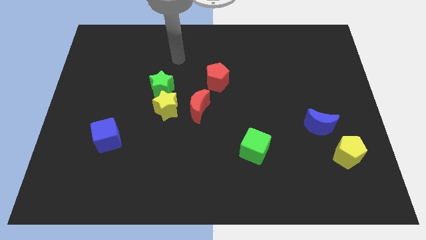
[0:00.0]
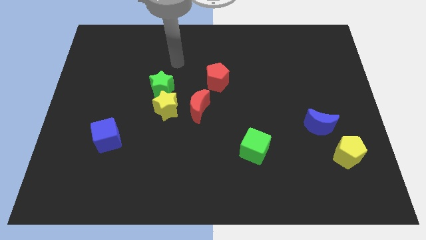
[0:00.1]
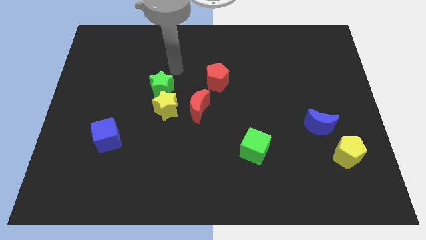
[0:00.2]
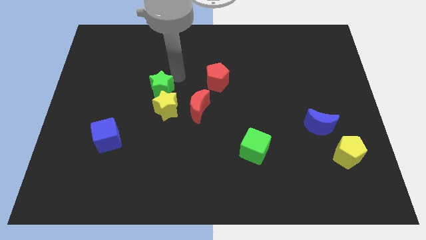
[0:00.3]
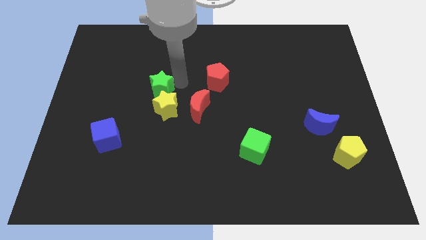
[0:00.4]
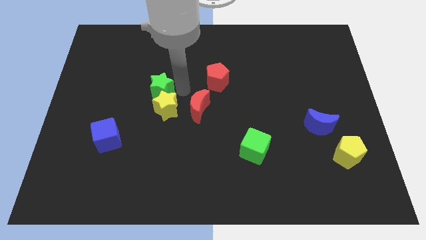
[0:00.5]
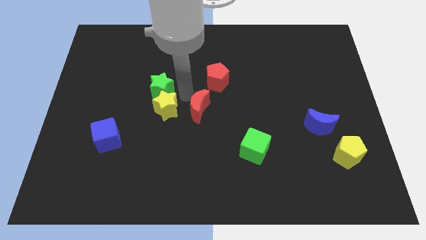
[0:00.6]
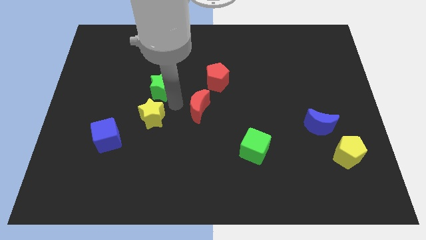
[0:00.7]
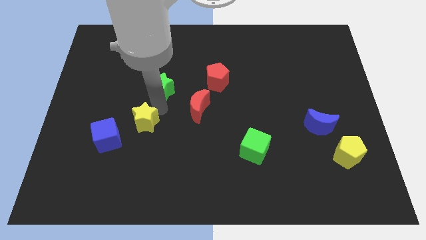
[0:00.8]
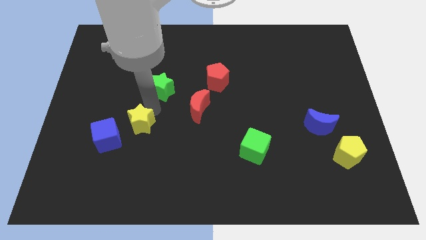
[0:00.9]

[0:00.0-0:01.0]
separate the green star from the yellow star

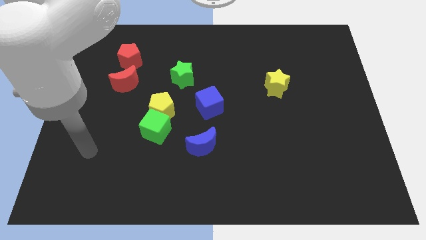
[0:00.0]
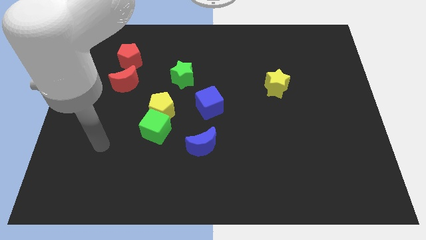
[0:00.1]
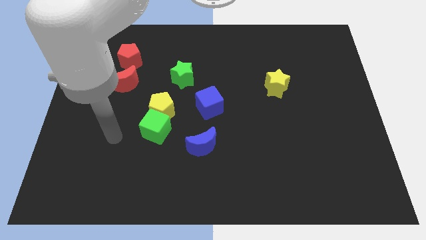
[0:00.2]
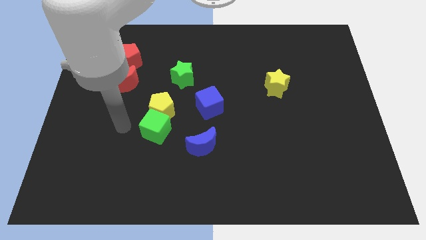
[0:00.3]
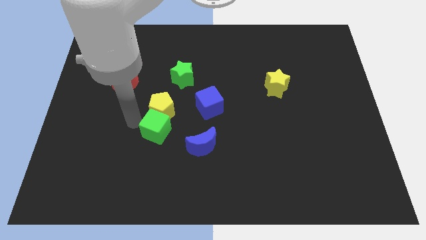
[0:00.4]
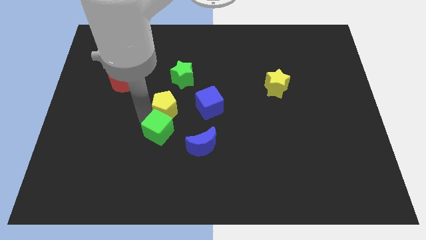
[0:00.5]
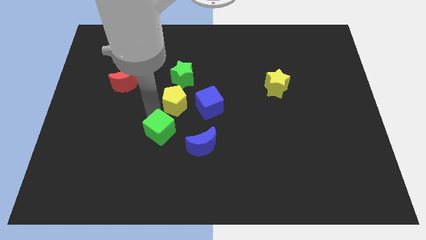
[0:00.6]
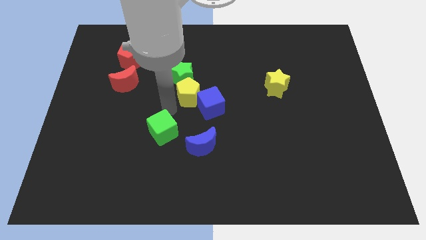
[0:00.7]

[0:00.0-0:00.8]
separate the green cube from the yellow pentagon

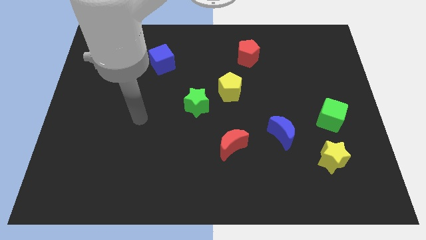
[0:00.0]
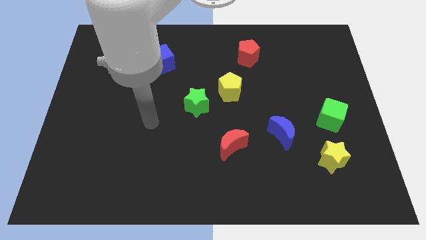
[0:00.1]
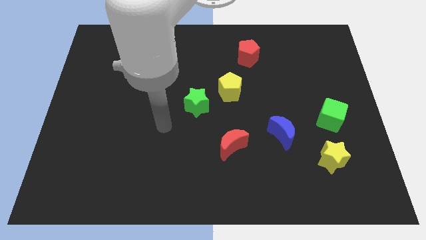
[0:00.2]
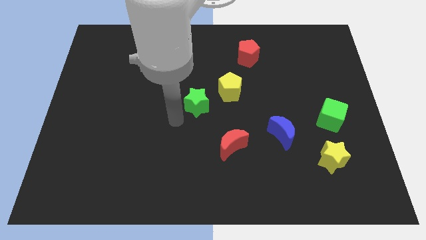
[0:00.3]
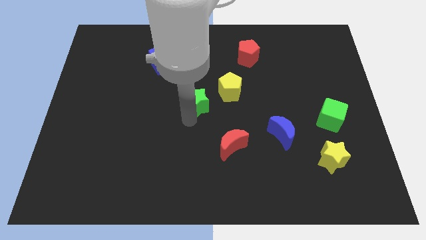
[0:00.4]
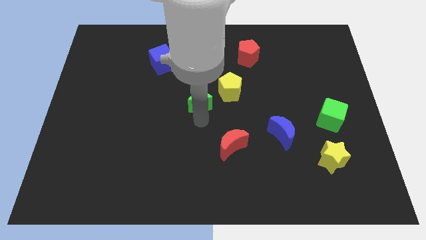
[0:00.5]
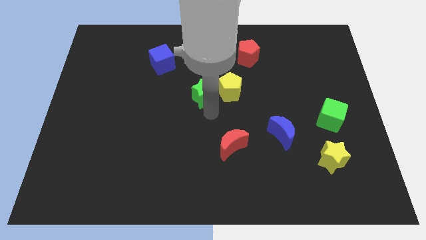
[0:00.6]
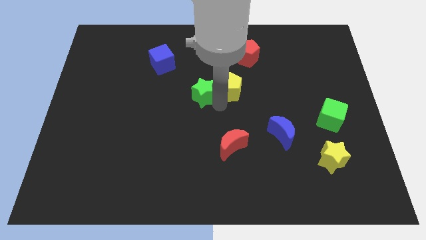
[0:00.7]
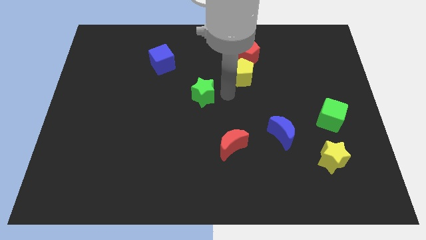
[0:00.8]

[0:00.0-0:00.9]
separate the green star from the yellow pentagon

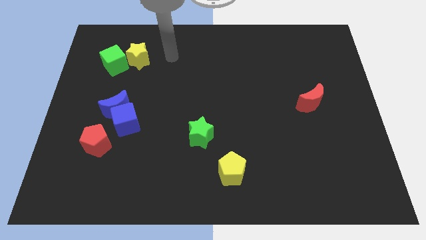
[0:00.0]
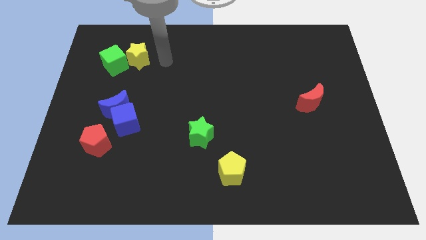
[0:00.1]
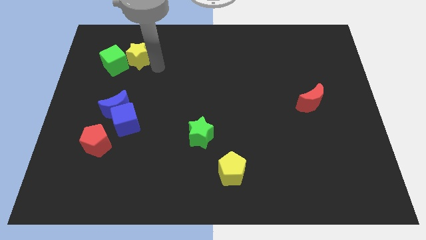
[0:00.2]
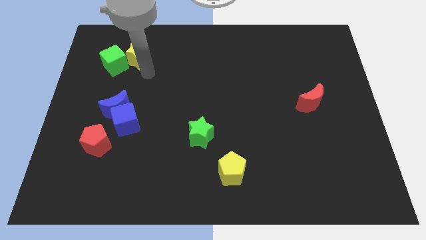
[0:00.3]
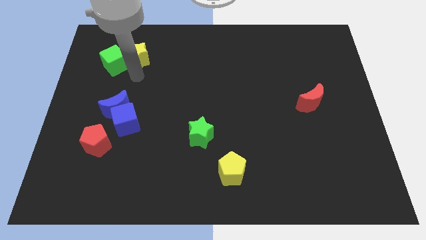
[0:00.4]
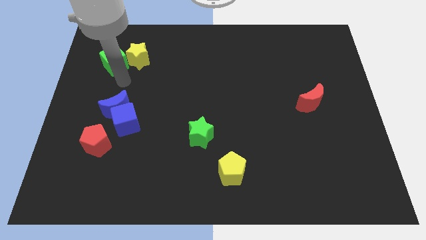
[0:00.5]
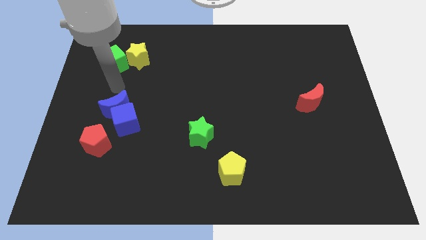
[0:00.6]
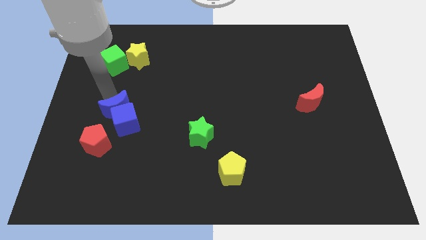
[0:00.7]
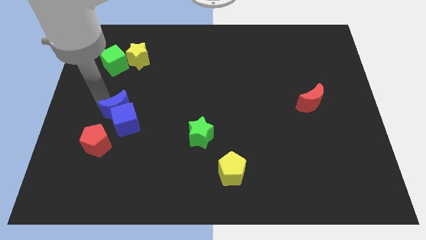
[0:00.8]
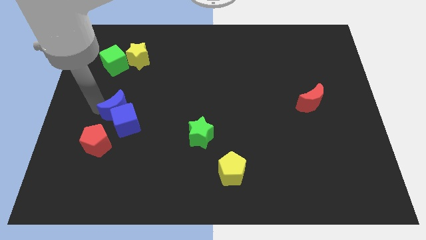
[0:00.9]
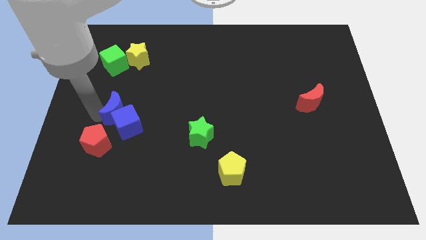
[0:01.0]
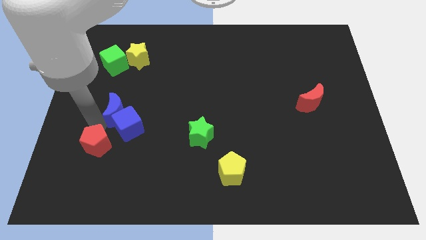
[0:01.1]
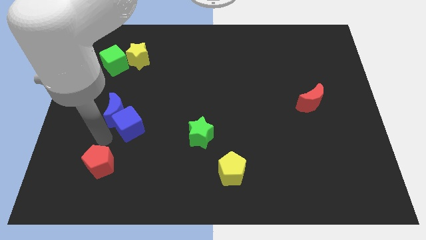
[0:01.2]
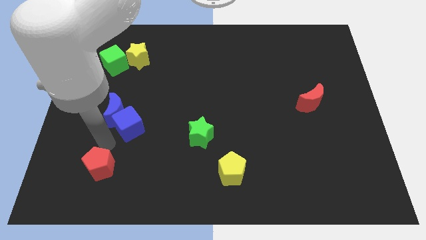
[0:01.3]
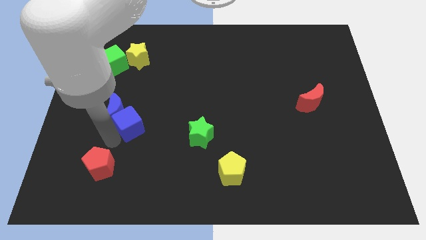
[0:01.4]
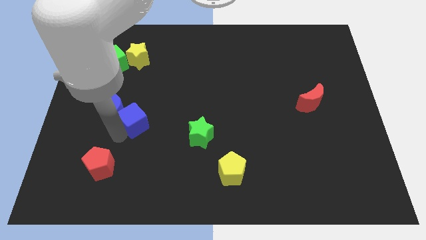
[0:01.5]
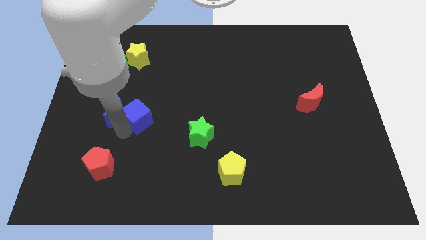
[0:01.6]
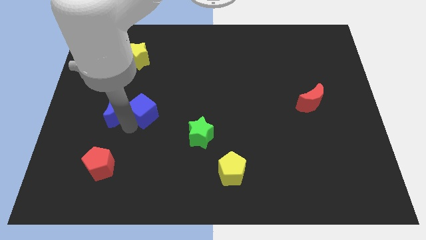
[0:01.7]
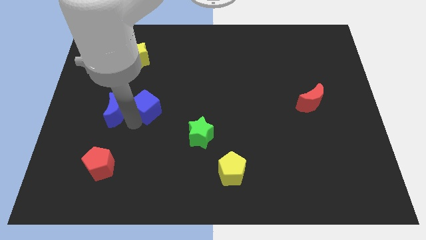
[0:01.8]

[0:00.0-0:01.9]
separate the blue cube from the blue moon and red pentagon

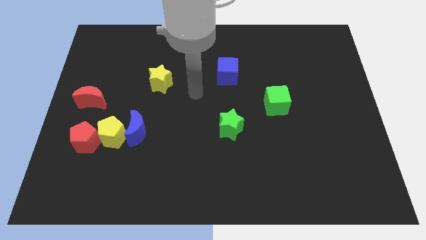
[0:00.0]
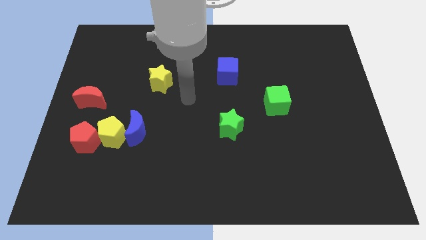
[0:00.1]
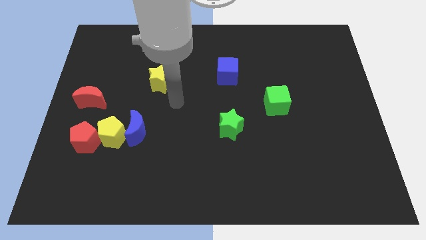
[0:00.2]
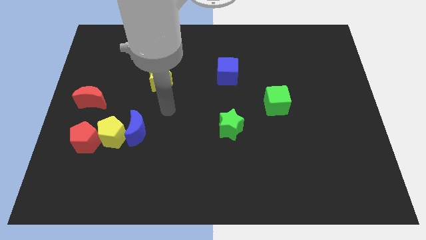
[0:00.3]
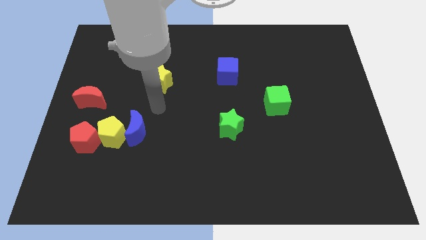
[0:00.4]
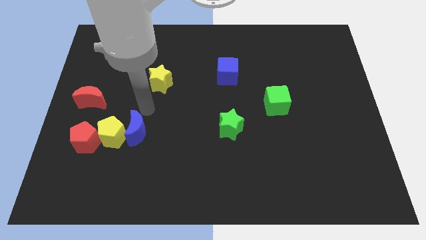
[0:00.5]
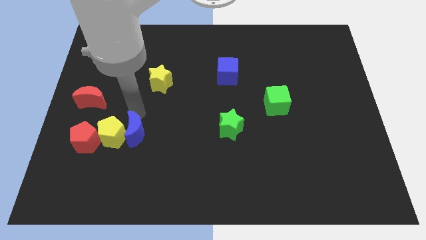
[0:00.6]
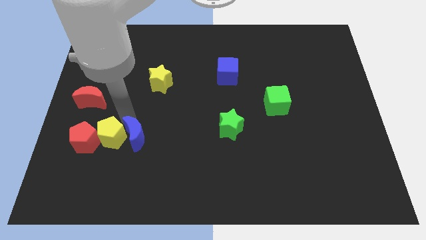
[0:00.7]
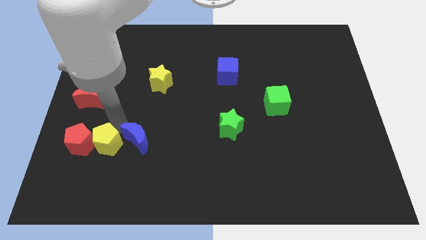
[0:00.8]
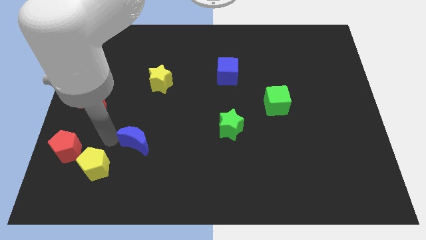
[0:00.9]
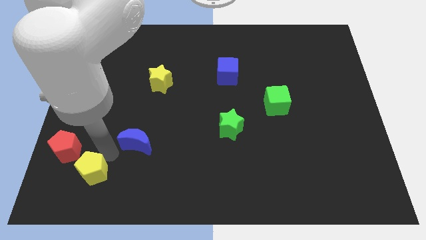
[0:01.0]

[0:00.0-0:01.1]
separate the blue moon from the yellow pentagon

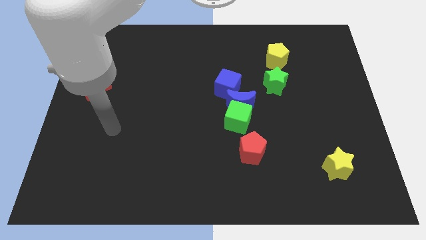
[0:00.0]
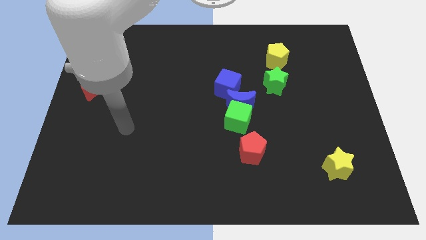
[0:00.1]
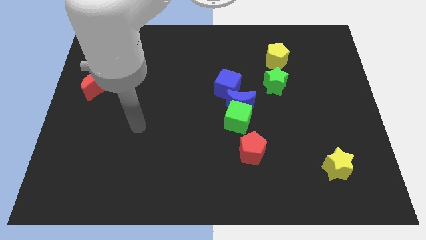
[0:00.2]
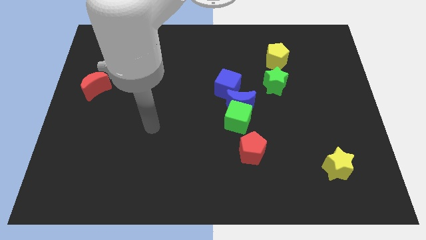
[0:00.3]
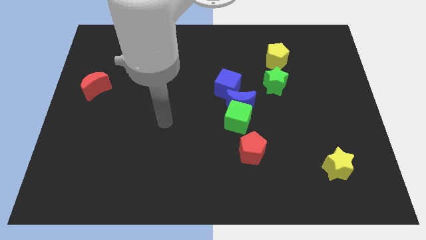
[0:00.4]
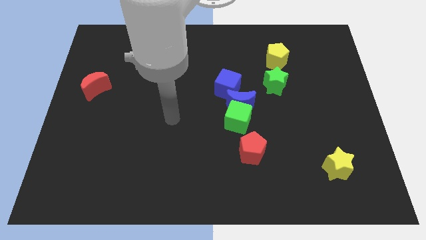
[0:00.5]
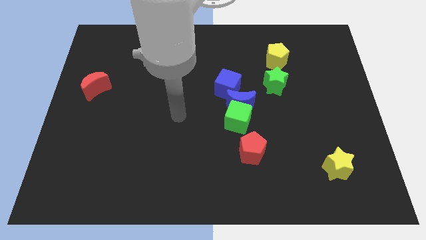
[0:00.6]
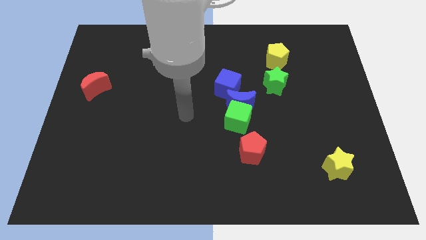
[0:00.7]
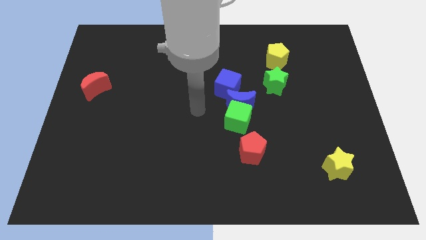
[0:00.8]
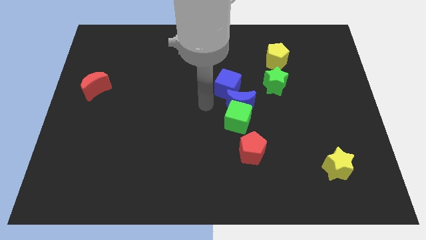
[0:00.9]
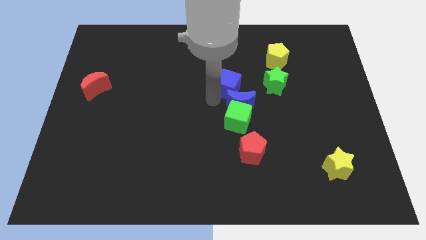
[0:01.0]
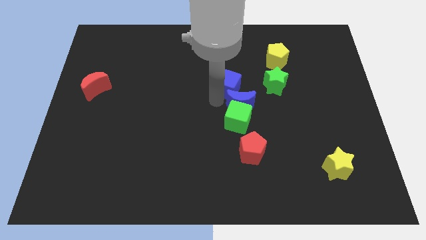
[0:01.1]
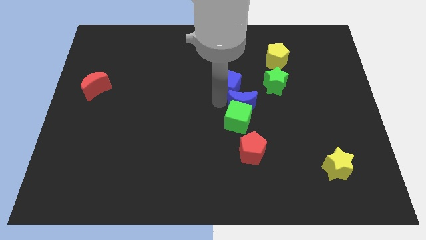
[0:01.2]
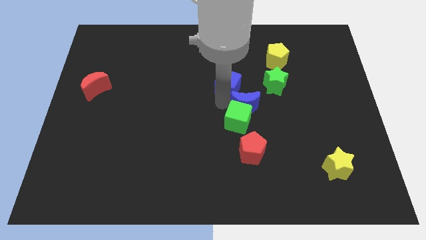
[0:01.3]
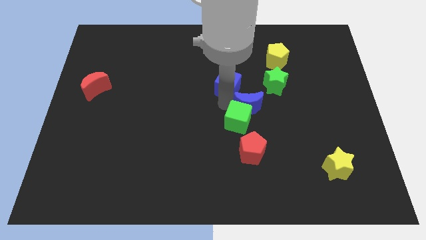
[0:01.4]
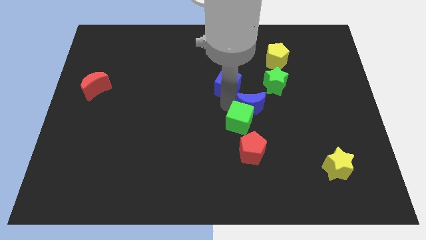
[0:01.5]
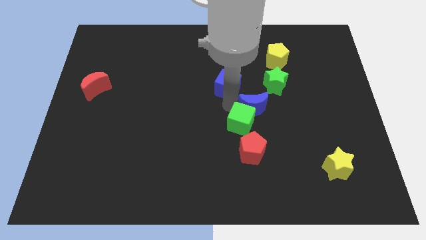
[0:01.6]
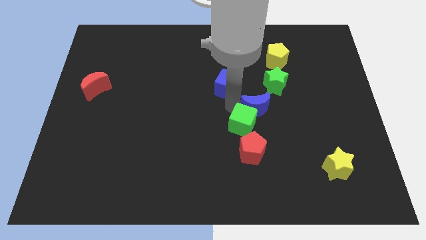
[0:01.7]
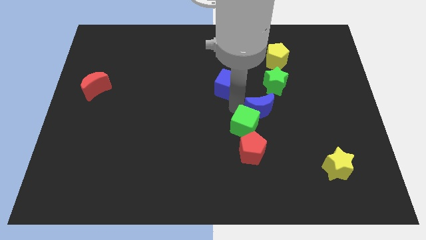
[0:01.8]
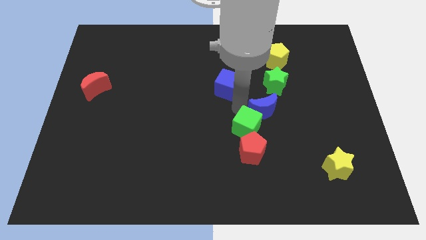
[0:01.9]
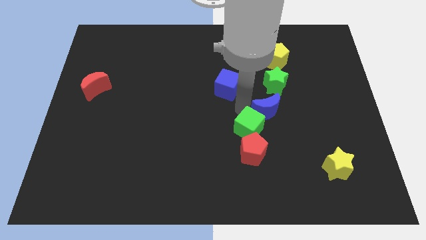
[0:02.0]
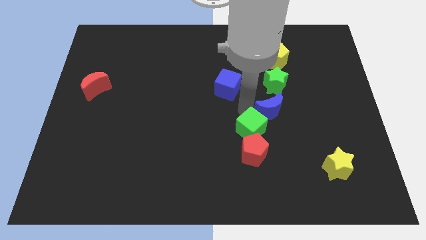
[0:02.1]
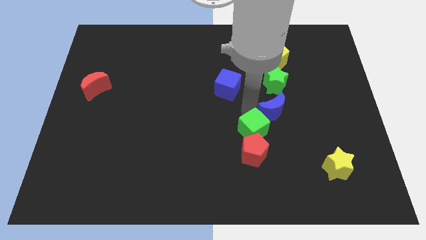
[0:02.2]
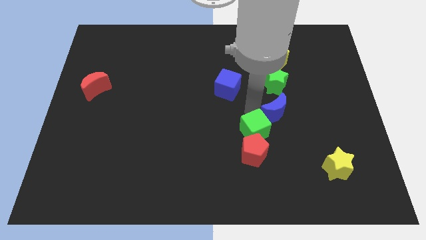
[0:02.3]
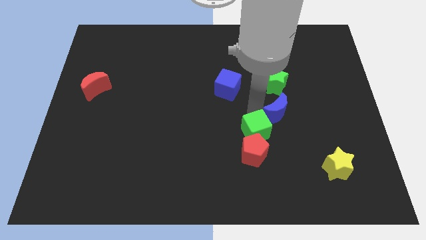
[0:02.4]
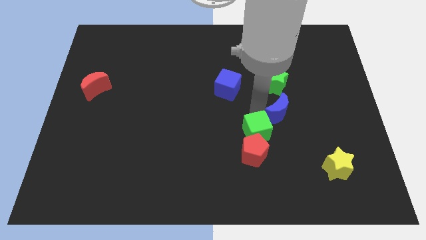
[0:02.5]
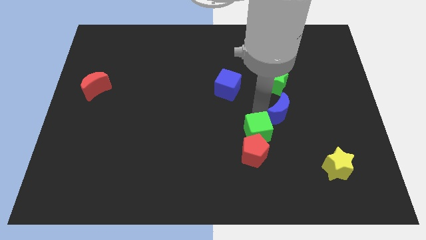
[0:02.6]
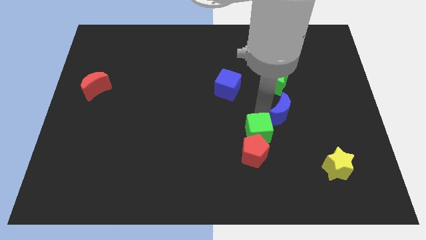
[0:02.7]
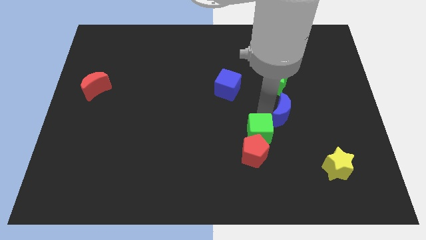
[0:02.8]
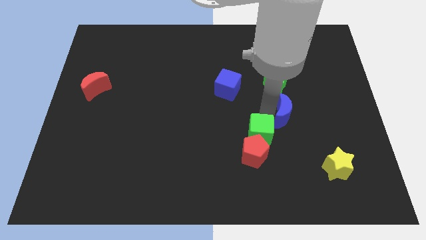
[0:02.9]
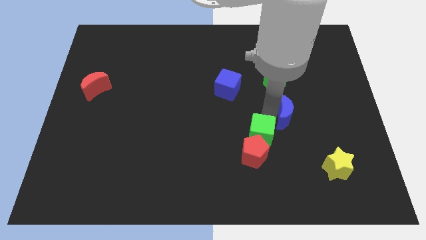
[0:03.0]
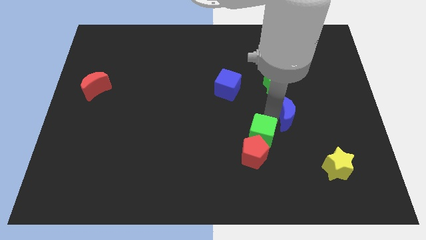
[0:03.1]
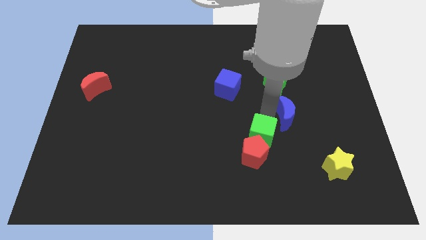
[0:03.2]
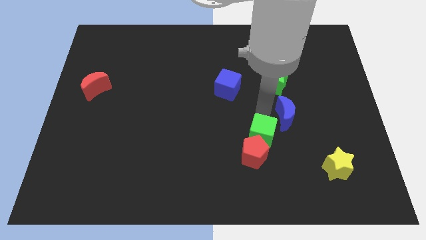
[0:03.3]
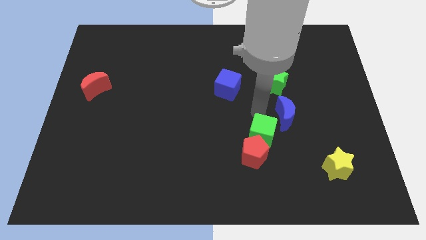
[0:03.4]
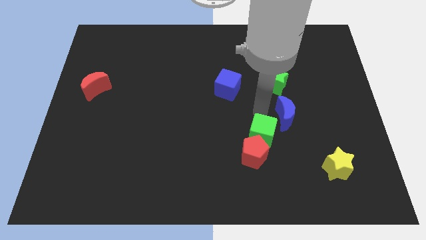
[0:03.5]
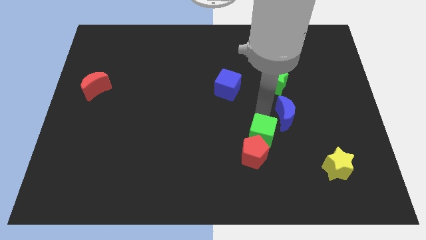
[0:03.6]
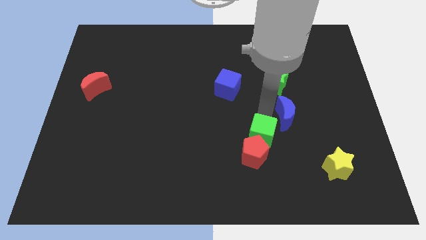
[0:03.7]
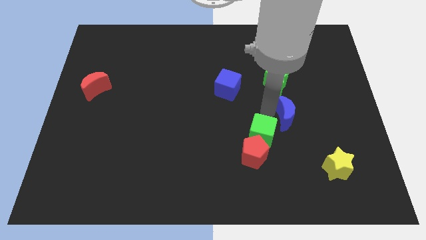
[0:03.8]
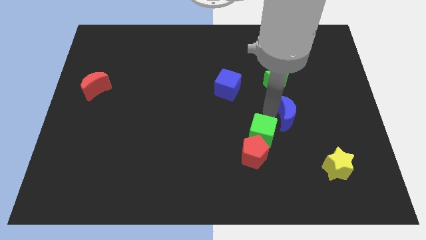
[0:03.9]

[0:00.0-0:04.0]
separate the blue moon from the green cube and blue cube
